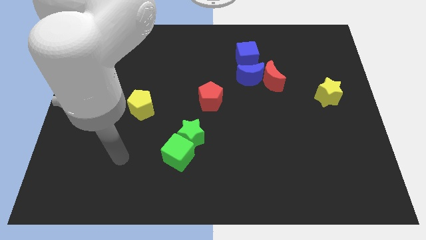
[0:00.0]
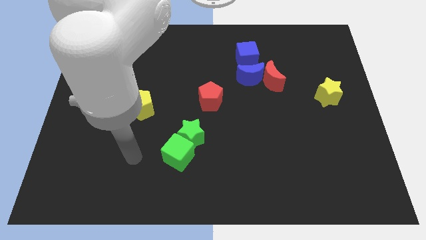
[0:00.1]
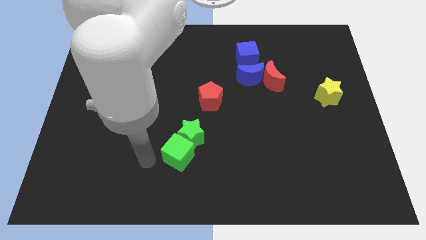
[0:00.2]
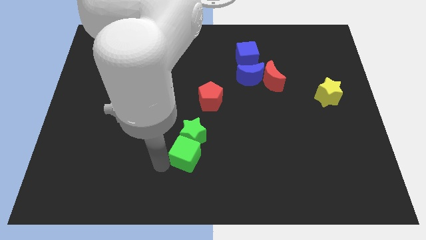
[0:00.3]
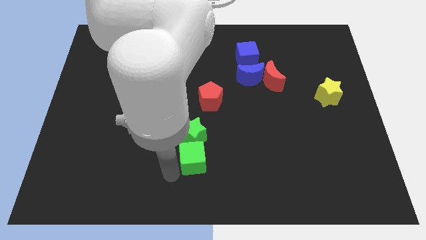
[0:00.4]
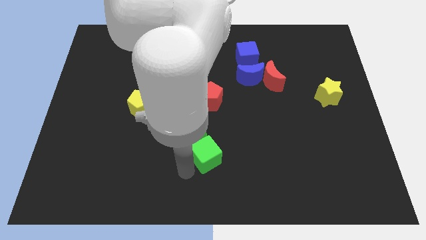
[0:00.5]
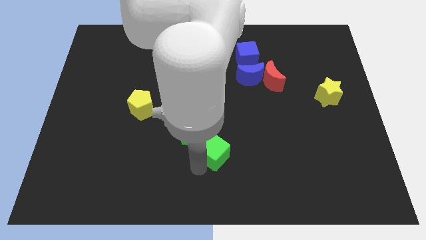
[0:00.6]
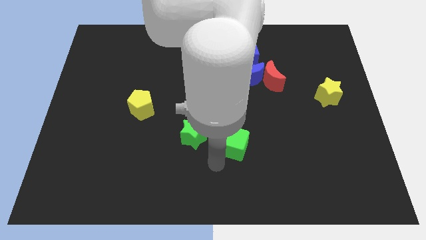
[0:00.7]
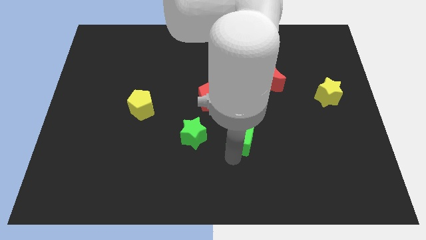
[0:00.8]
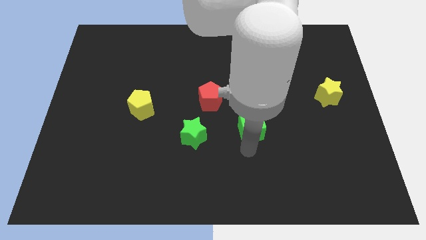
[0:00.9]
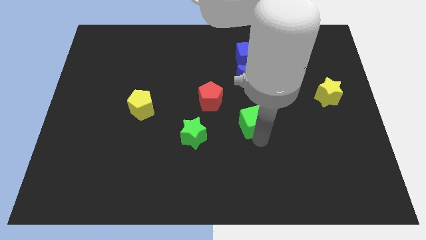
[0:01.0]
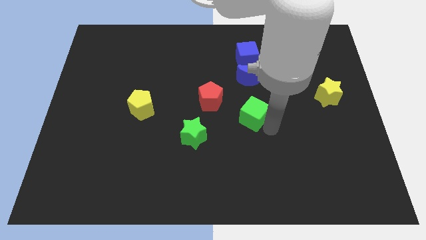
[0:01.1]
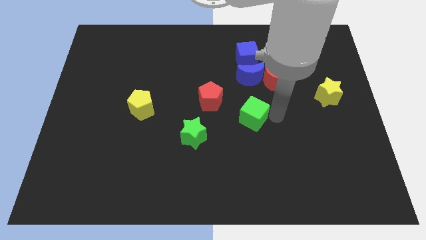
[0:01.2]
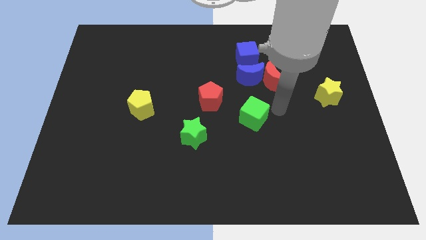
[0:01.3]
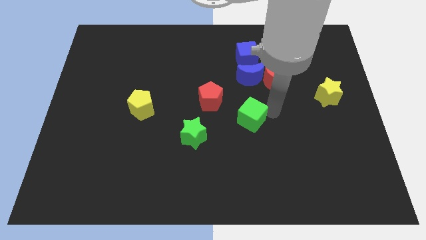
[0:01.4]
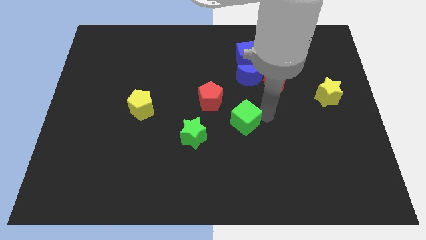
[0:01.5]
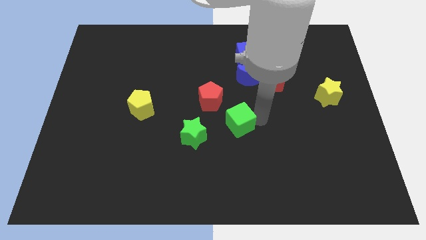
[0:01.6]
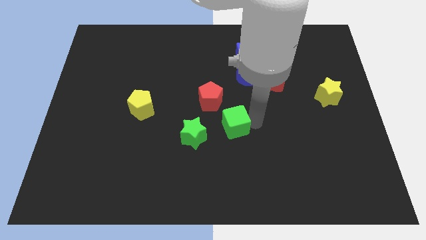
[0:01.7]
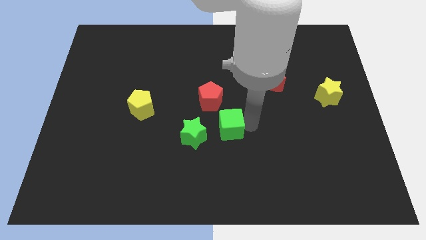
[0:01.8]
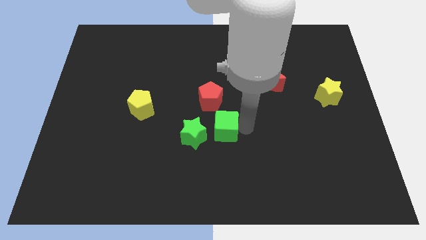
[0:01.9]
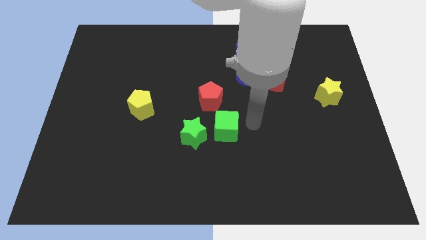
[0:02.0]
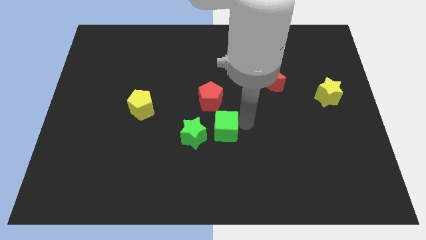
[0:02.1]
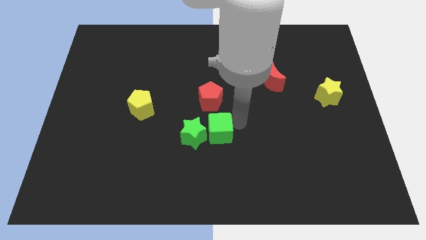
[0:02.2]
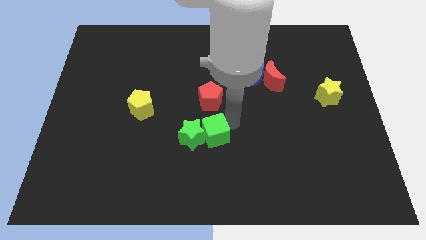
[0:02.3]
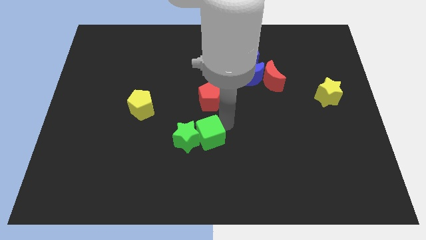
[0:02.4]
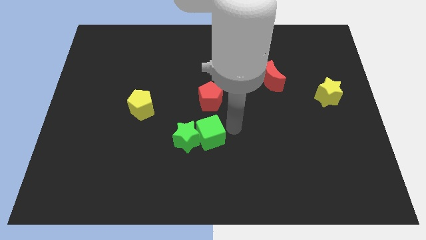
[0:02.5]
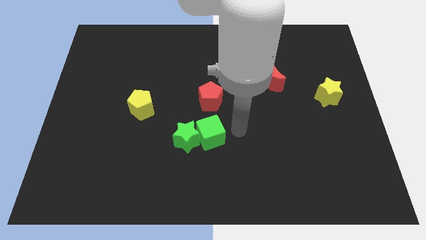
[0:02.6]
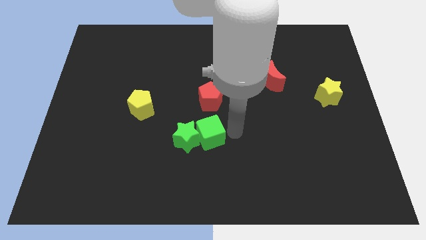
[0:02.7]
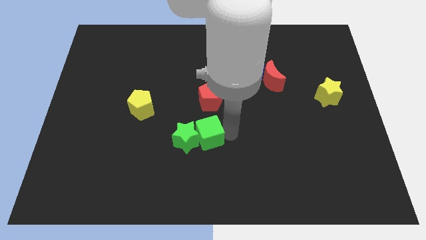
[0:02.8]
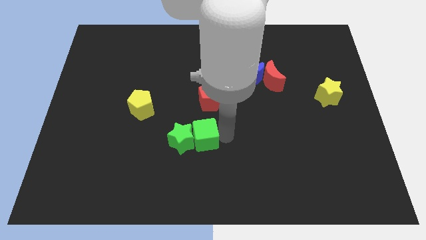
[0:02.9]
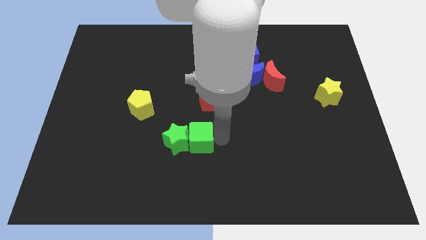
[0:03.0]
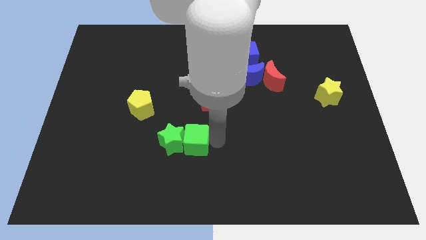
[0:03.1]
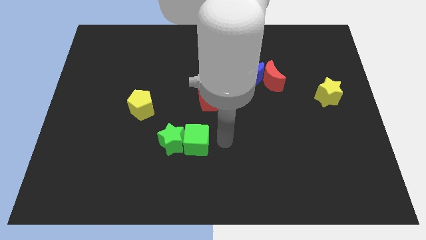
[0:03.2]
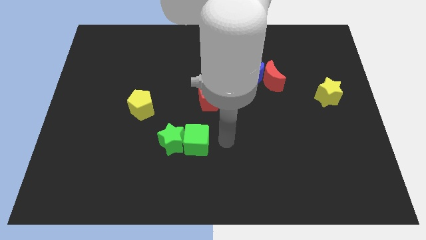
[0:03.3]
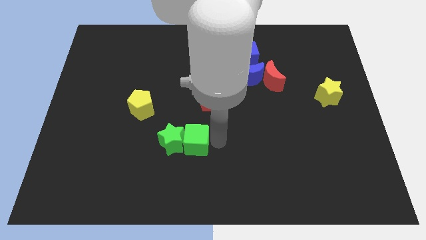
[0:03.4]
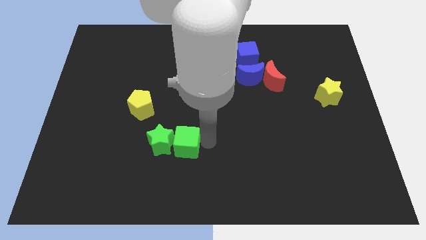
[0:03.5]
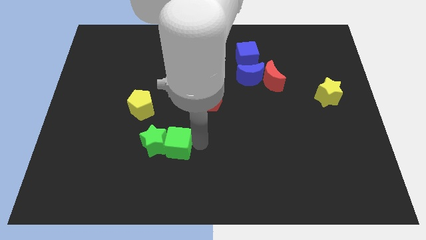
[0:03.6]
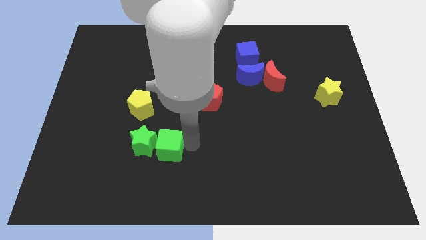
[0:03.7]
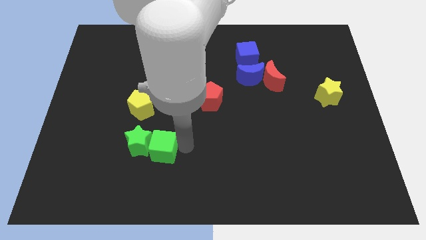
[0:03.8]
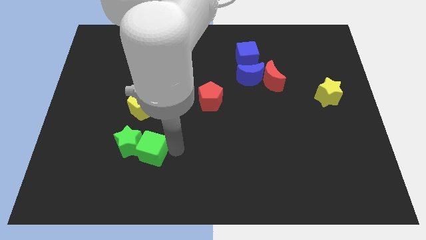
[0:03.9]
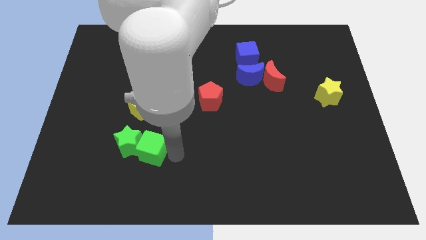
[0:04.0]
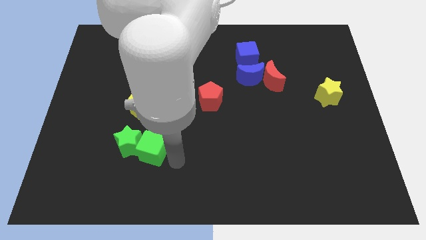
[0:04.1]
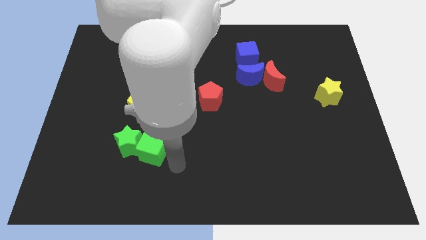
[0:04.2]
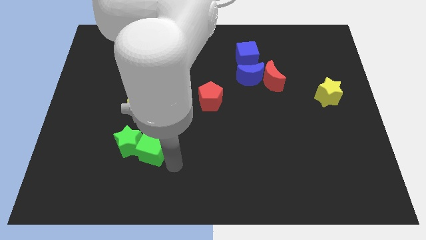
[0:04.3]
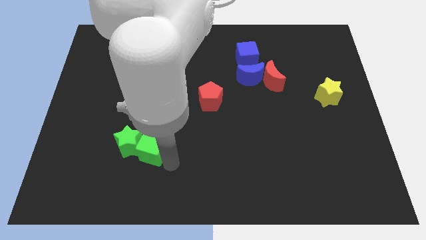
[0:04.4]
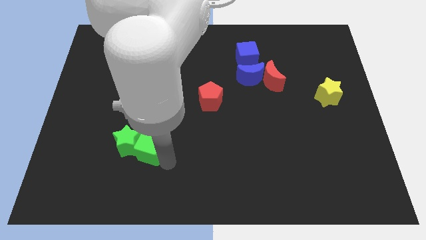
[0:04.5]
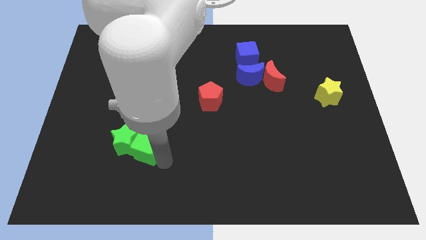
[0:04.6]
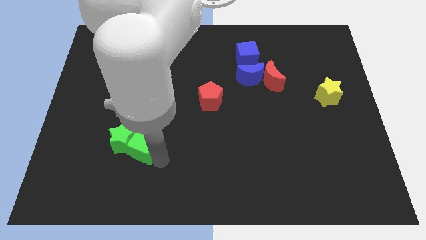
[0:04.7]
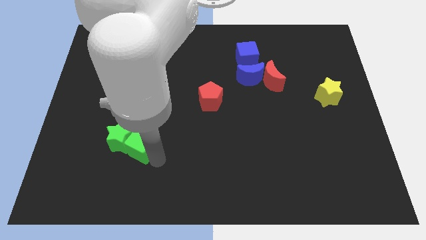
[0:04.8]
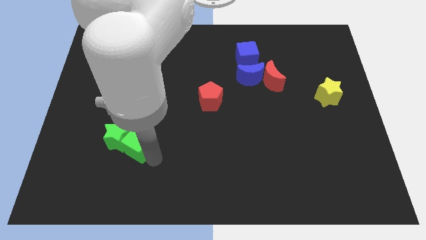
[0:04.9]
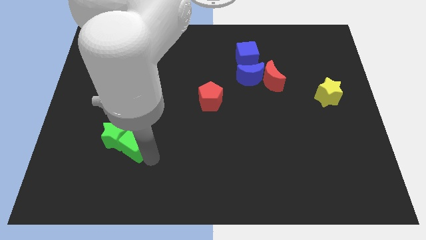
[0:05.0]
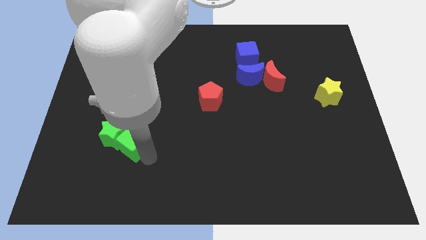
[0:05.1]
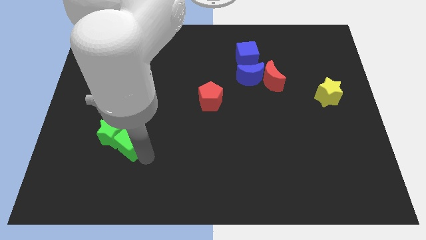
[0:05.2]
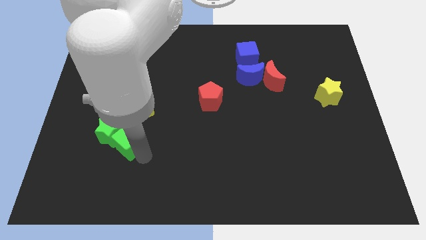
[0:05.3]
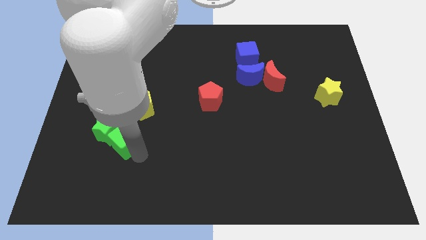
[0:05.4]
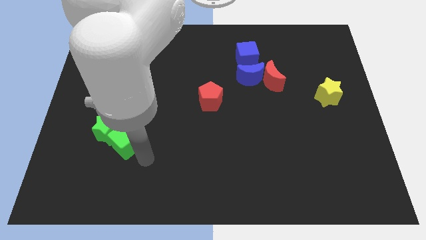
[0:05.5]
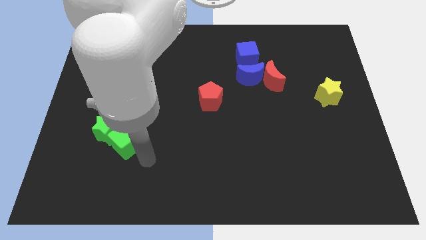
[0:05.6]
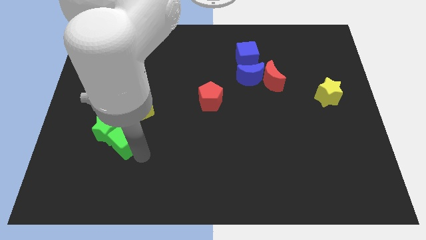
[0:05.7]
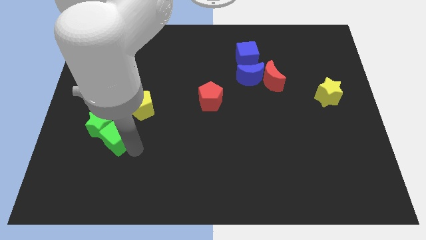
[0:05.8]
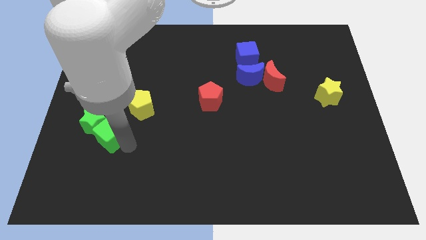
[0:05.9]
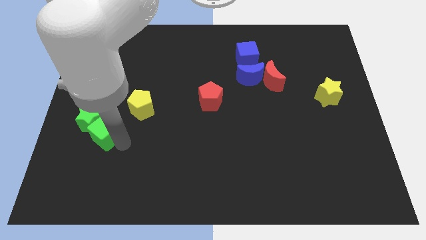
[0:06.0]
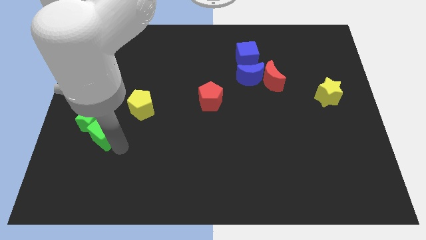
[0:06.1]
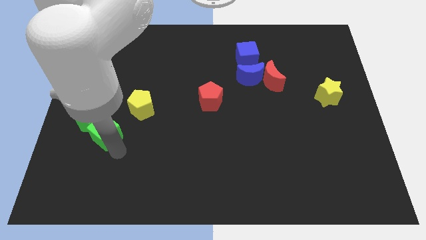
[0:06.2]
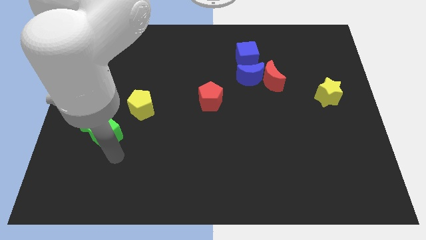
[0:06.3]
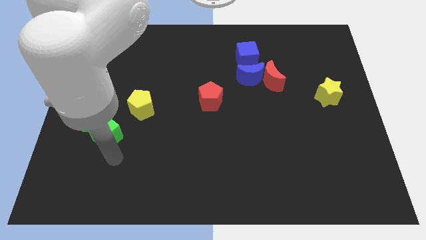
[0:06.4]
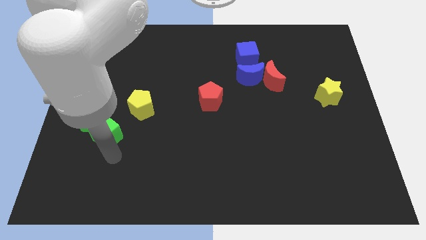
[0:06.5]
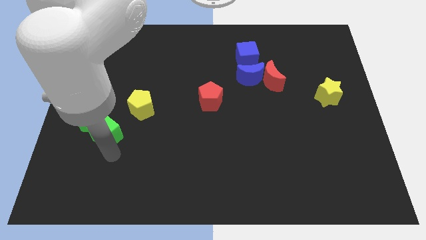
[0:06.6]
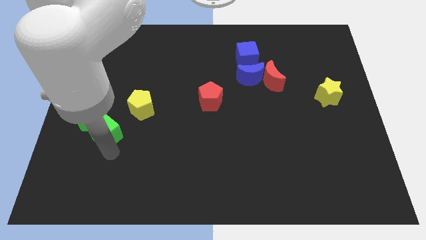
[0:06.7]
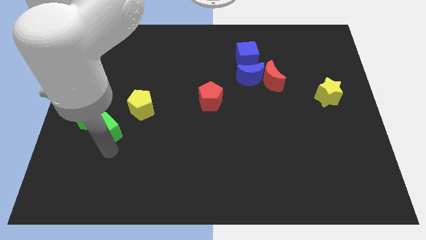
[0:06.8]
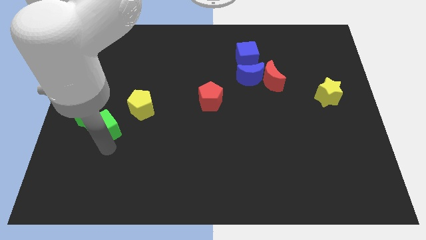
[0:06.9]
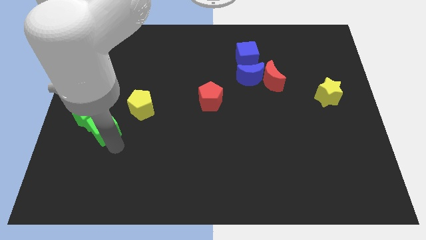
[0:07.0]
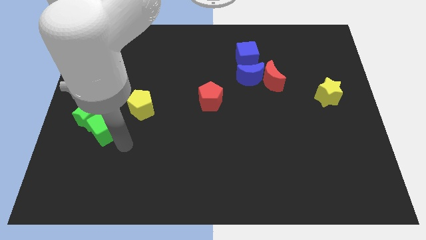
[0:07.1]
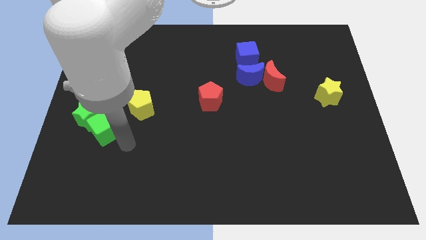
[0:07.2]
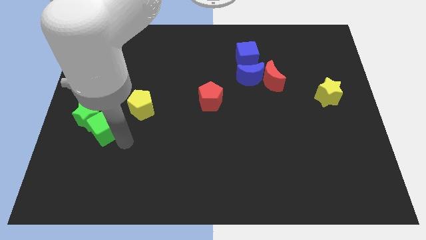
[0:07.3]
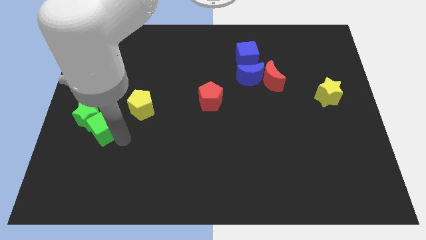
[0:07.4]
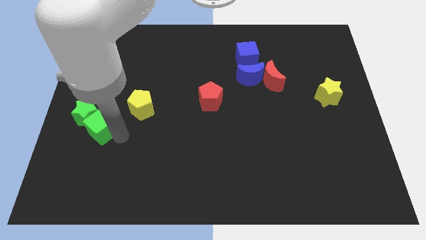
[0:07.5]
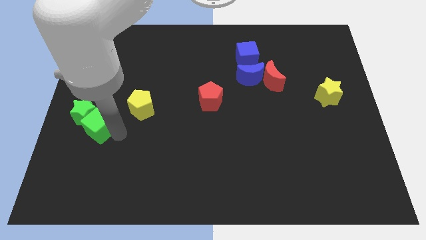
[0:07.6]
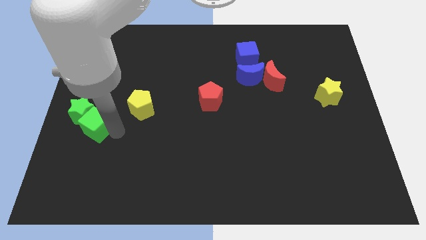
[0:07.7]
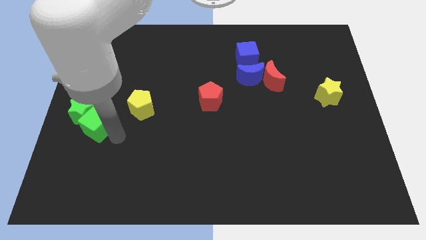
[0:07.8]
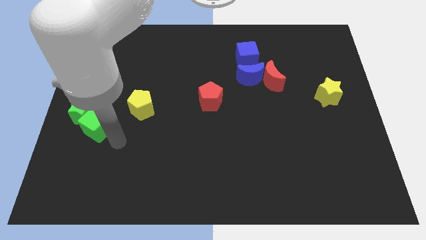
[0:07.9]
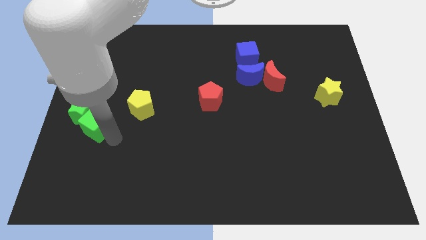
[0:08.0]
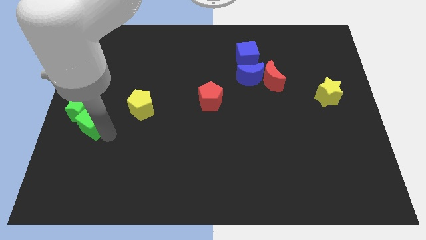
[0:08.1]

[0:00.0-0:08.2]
put the green cube to the center left

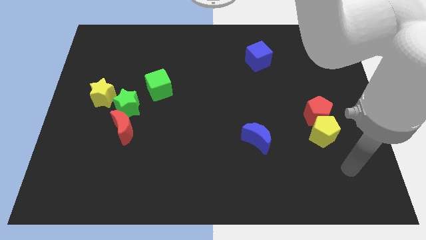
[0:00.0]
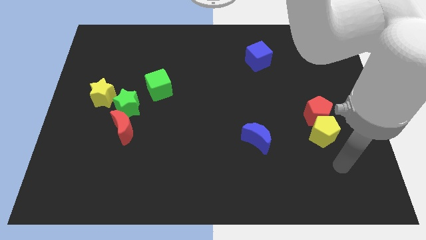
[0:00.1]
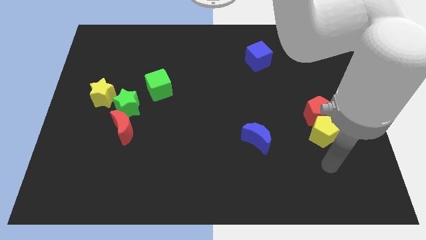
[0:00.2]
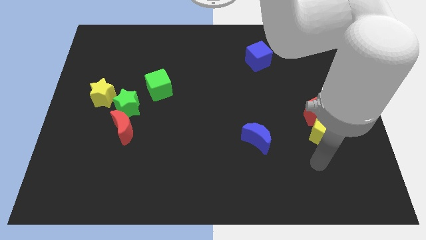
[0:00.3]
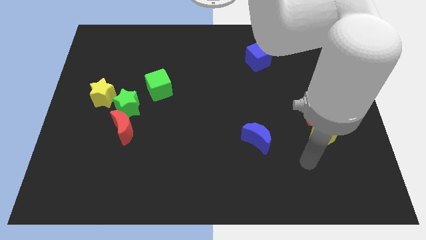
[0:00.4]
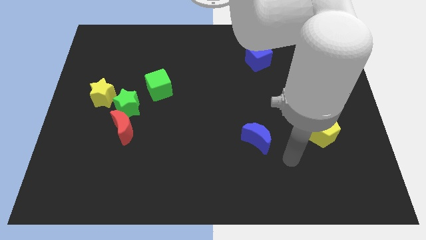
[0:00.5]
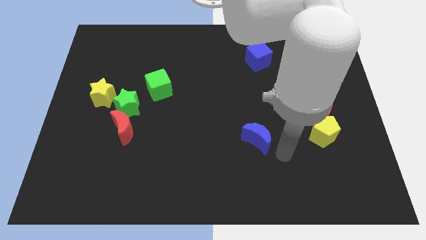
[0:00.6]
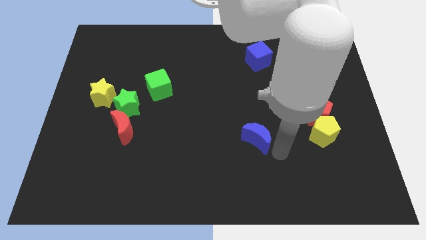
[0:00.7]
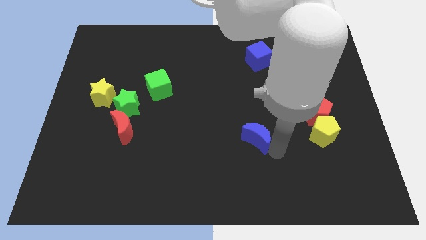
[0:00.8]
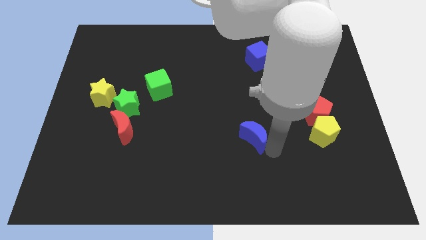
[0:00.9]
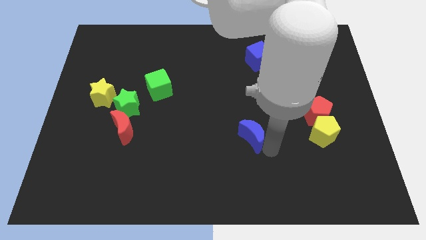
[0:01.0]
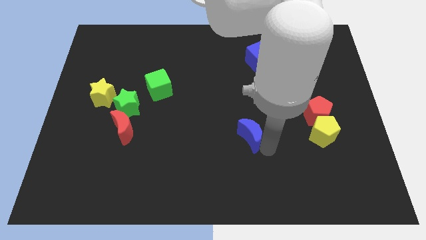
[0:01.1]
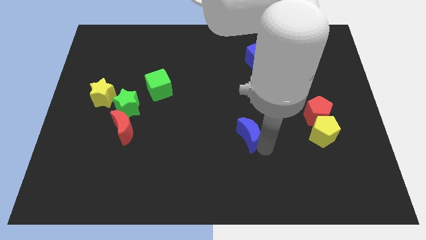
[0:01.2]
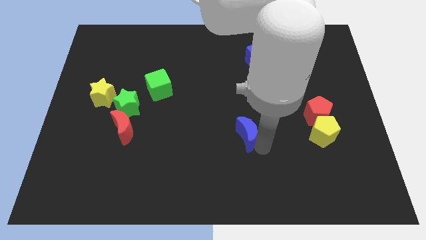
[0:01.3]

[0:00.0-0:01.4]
move the blue moon to the middle of the board
